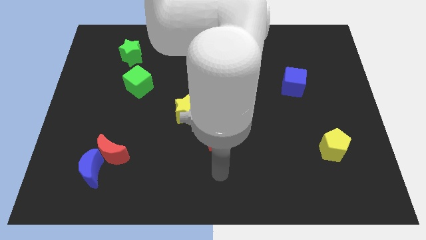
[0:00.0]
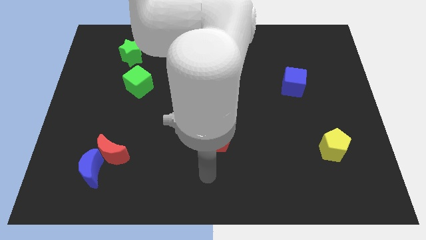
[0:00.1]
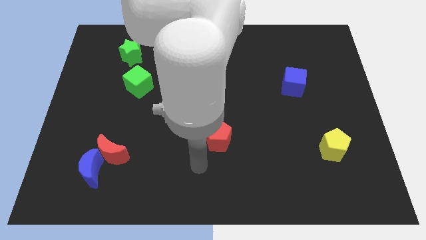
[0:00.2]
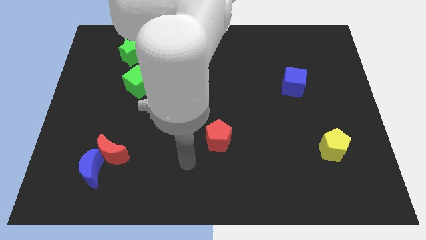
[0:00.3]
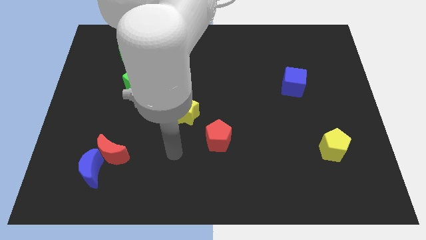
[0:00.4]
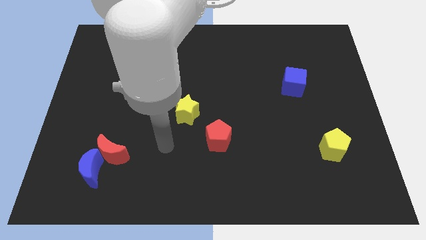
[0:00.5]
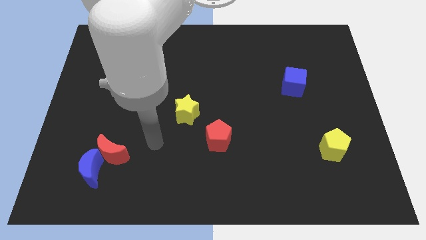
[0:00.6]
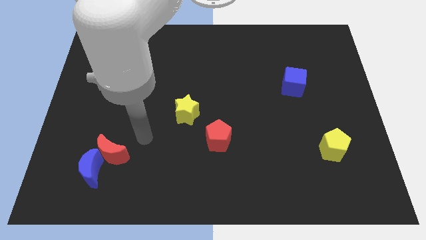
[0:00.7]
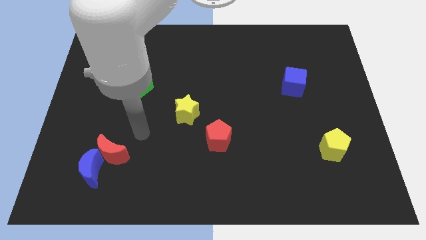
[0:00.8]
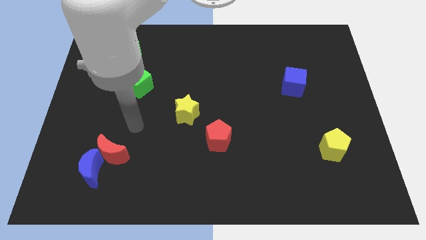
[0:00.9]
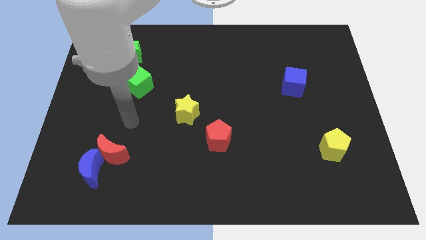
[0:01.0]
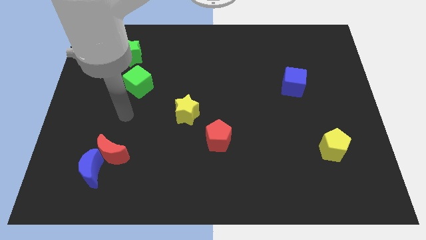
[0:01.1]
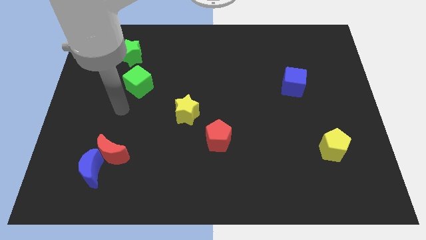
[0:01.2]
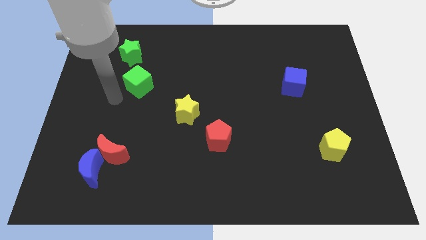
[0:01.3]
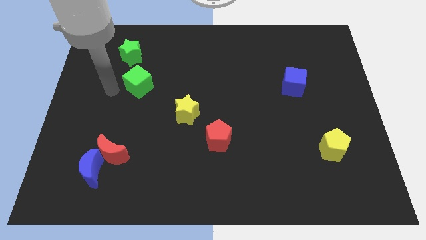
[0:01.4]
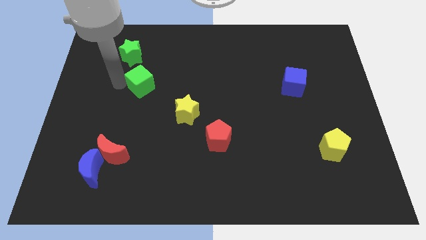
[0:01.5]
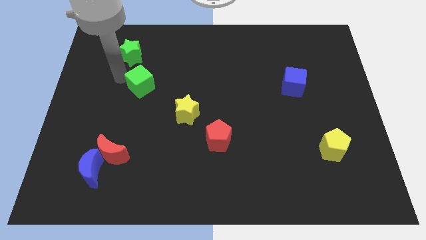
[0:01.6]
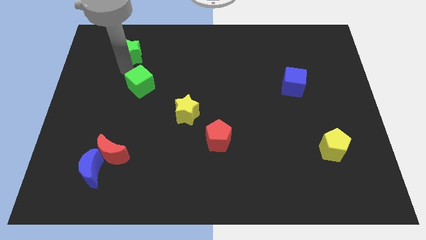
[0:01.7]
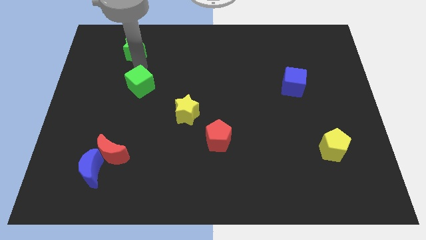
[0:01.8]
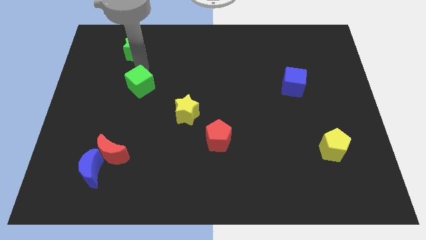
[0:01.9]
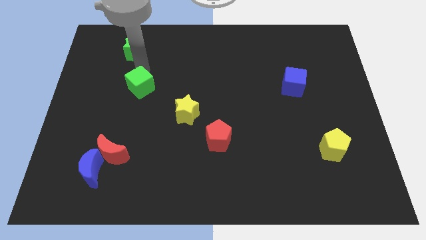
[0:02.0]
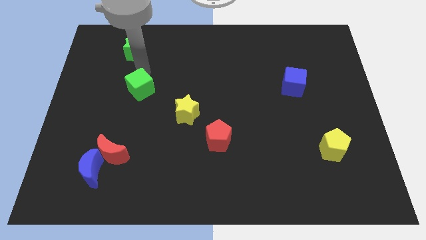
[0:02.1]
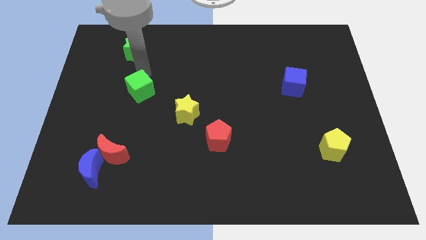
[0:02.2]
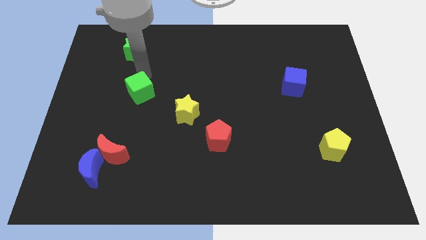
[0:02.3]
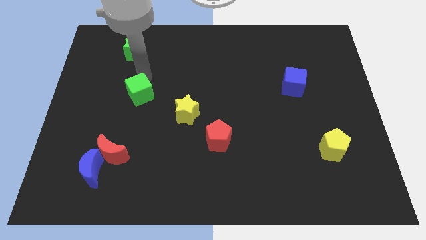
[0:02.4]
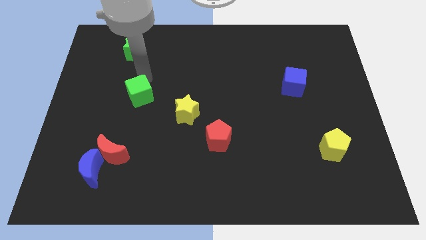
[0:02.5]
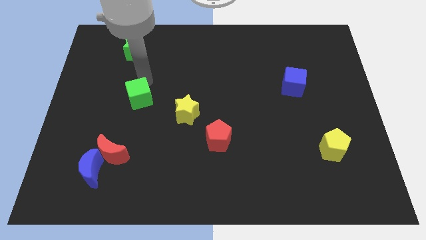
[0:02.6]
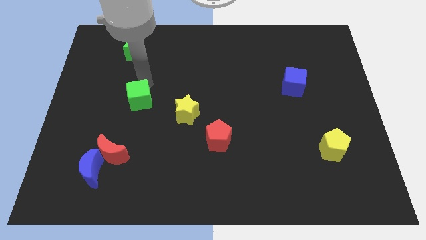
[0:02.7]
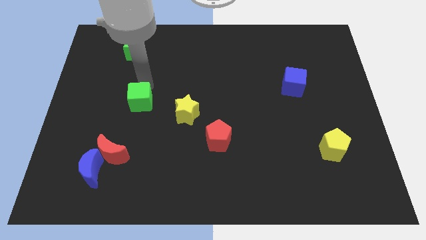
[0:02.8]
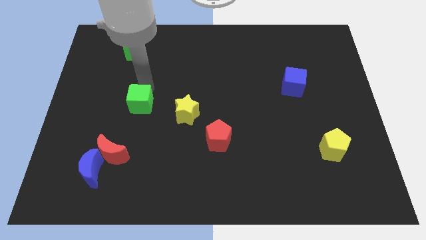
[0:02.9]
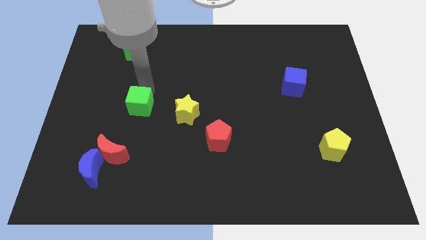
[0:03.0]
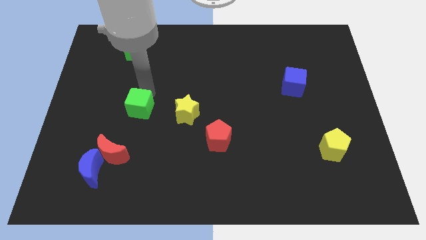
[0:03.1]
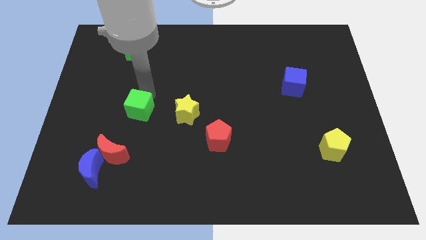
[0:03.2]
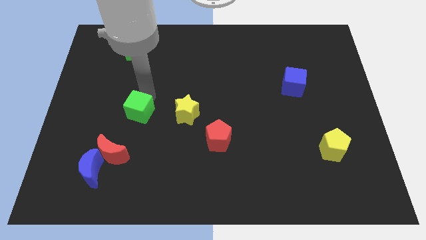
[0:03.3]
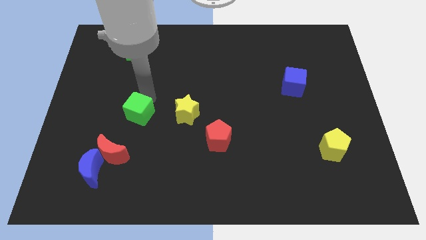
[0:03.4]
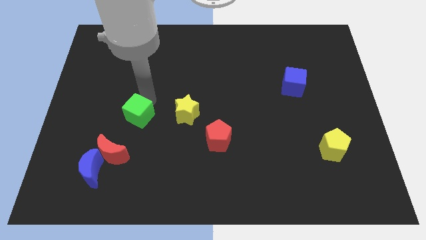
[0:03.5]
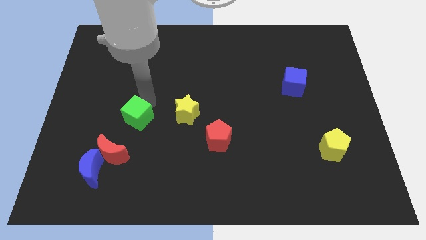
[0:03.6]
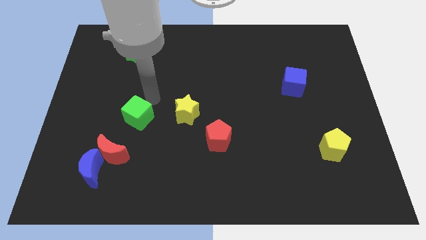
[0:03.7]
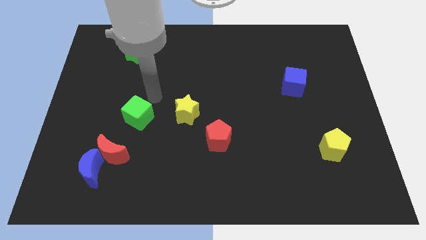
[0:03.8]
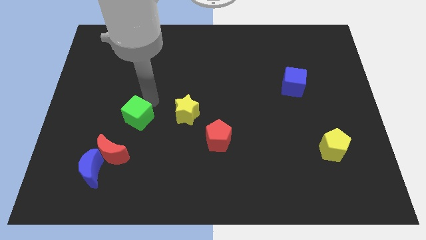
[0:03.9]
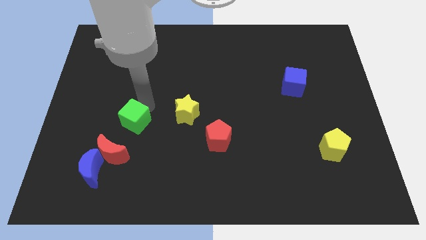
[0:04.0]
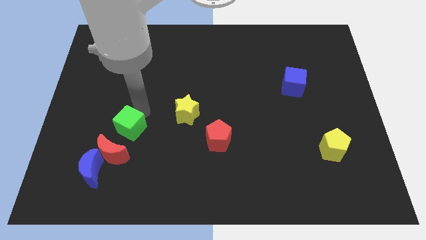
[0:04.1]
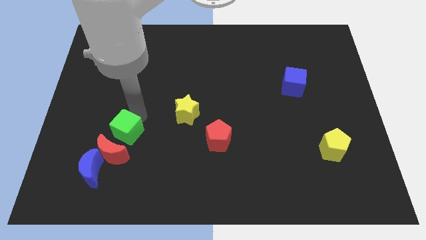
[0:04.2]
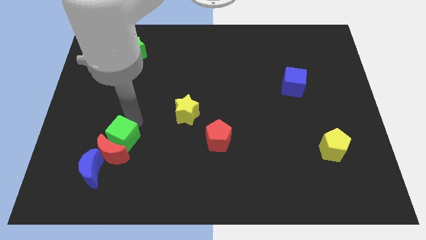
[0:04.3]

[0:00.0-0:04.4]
push the green cube to the red moon

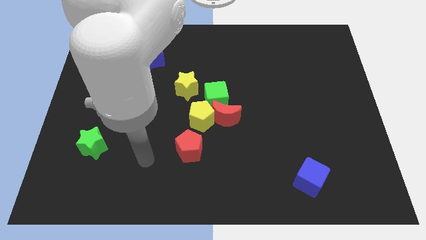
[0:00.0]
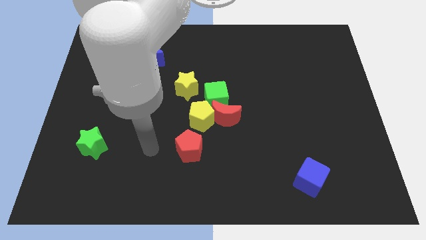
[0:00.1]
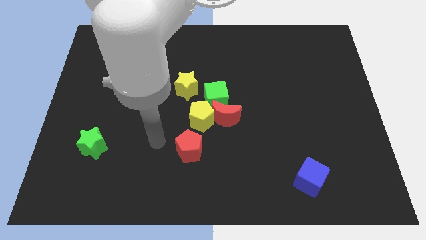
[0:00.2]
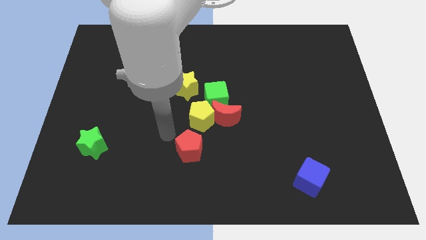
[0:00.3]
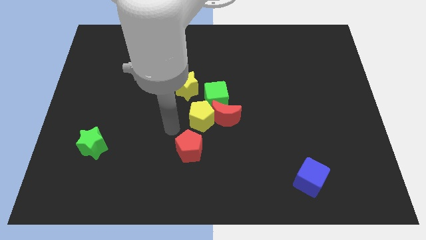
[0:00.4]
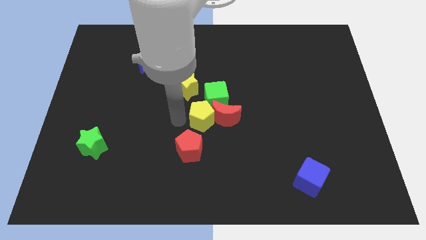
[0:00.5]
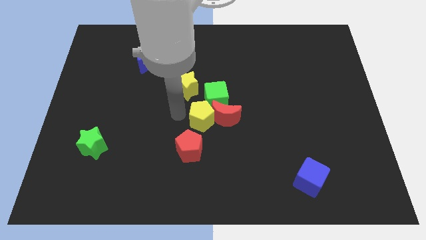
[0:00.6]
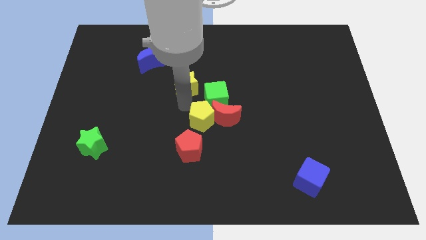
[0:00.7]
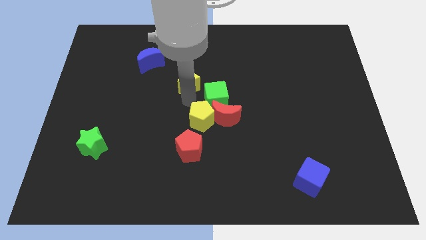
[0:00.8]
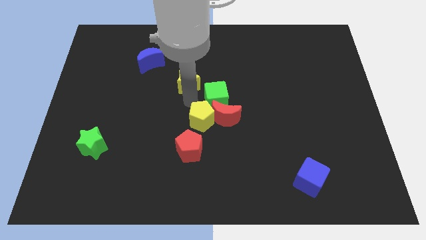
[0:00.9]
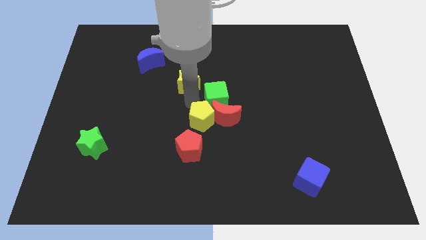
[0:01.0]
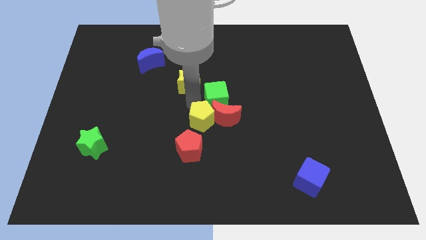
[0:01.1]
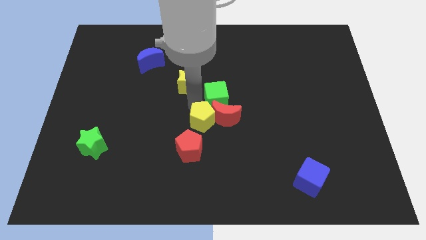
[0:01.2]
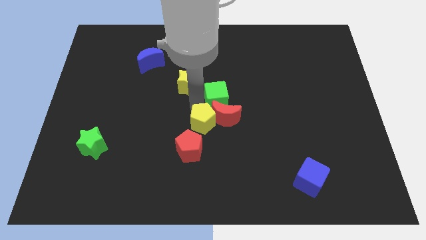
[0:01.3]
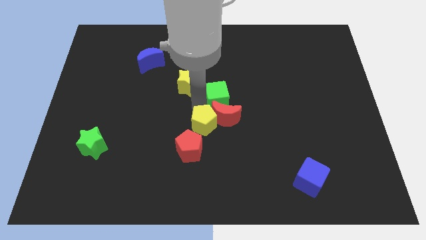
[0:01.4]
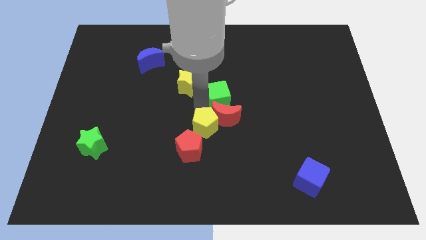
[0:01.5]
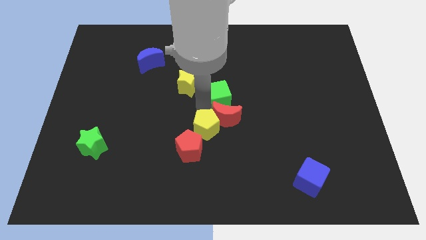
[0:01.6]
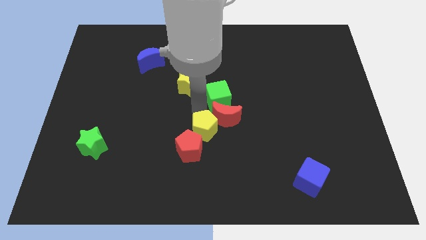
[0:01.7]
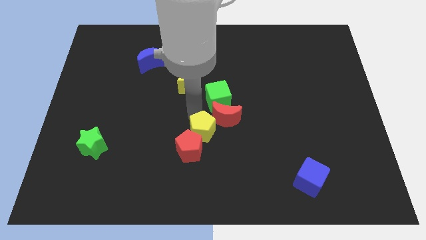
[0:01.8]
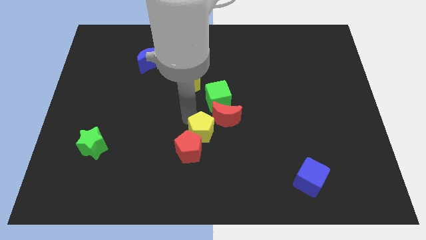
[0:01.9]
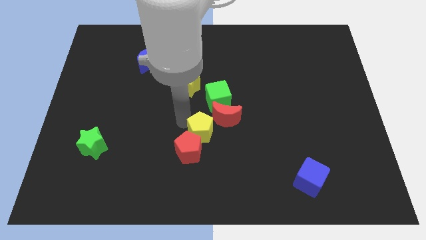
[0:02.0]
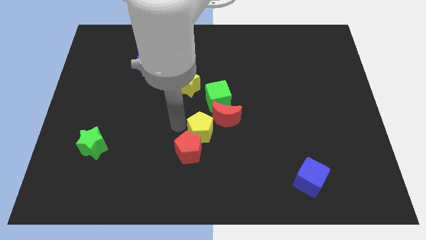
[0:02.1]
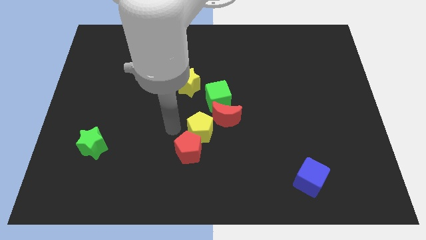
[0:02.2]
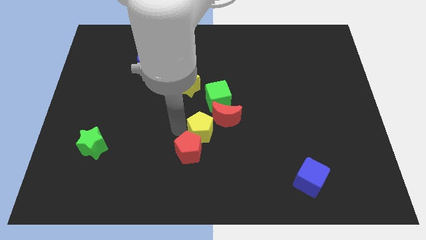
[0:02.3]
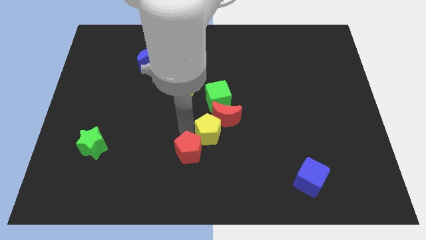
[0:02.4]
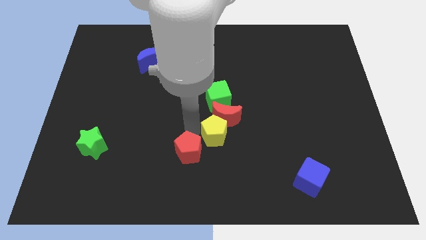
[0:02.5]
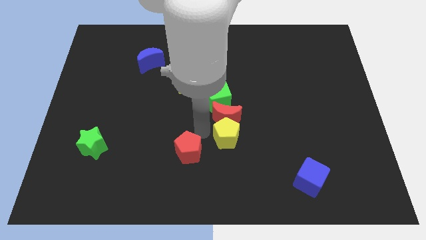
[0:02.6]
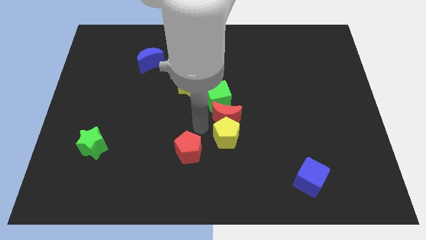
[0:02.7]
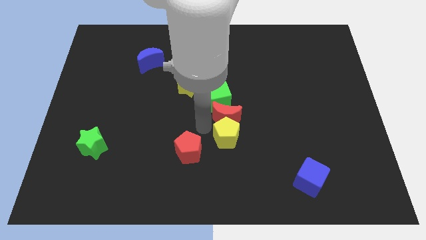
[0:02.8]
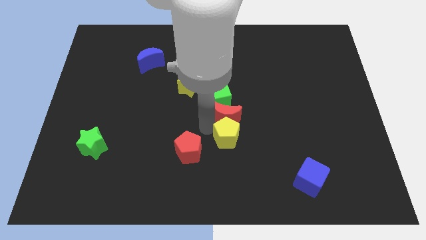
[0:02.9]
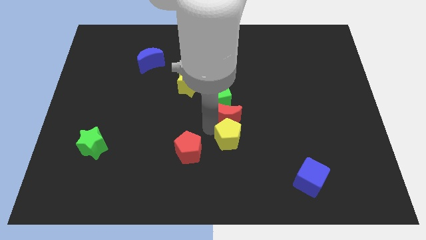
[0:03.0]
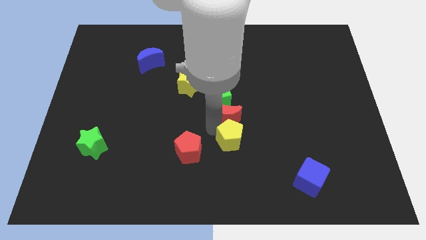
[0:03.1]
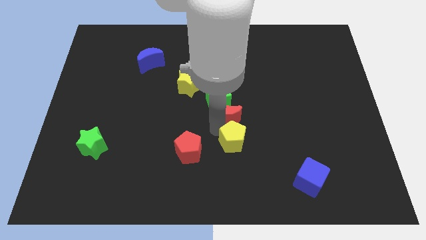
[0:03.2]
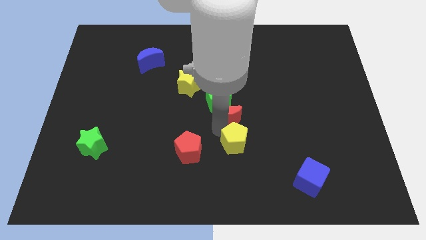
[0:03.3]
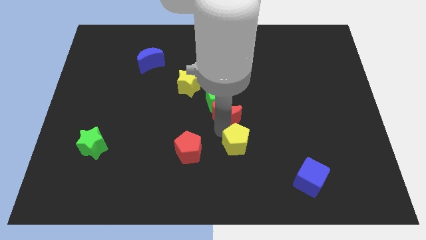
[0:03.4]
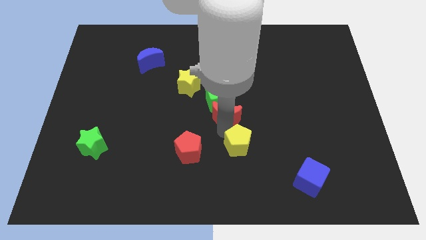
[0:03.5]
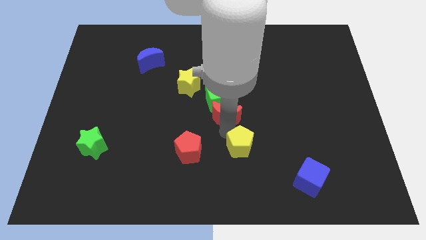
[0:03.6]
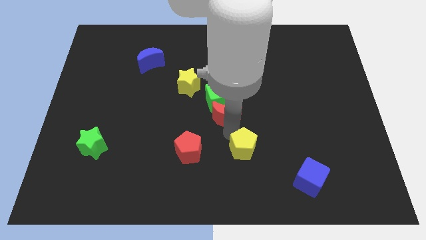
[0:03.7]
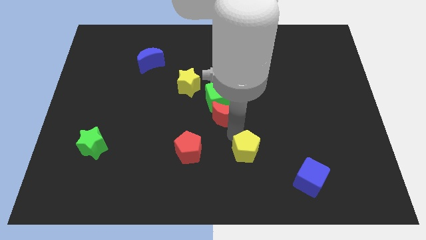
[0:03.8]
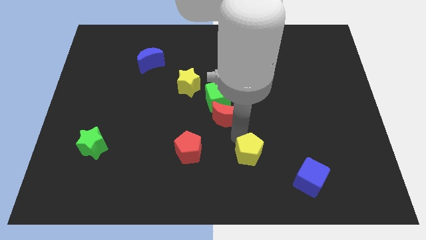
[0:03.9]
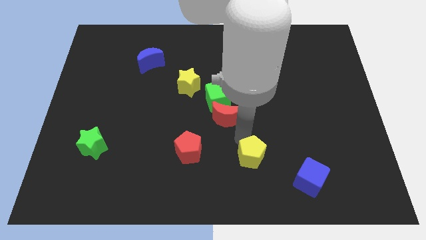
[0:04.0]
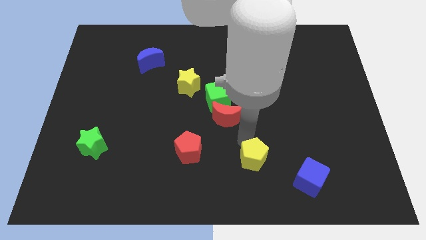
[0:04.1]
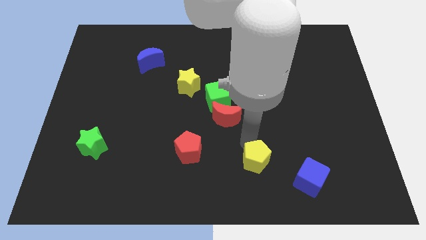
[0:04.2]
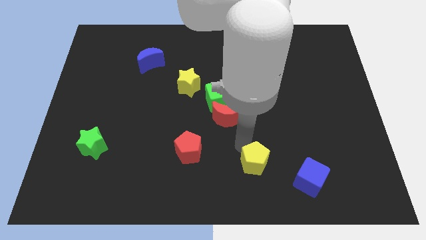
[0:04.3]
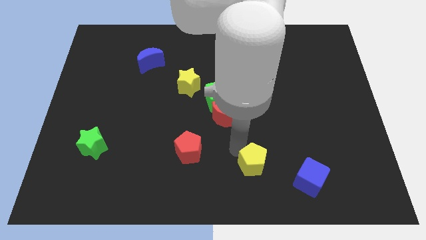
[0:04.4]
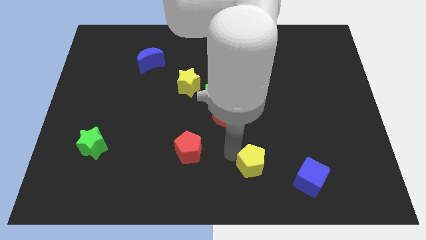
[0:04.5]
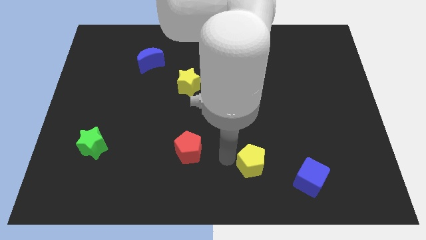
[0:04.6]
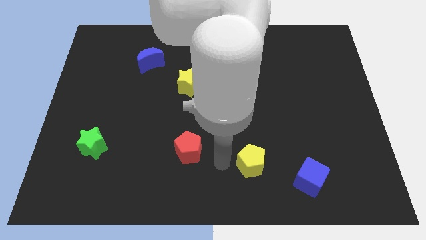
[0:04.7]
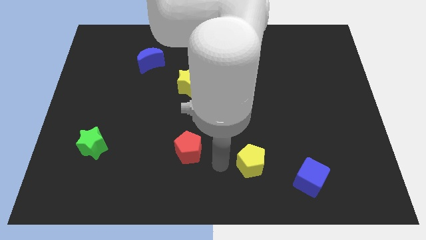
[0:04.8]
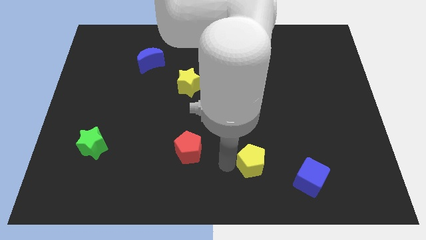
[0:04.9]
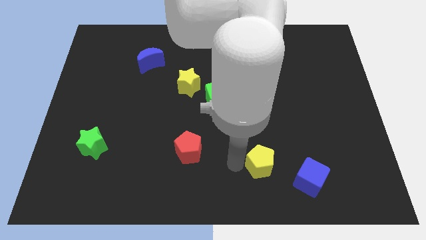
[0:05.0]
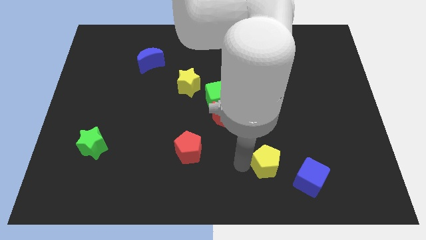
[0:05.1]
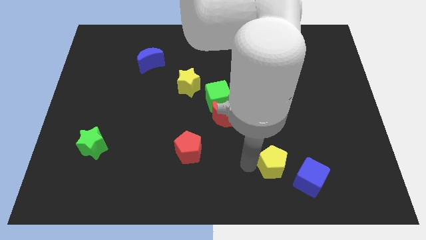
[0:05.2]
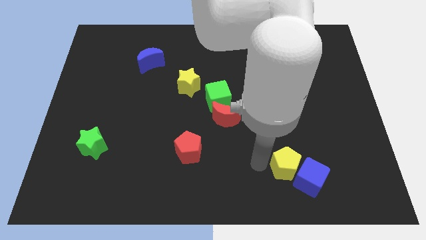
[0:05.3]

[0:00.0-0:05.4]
move the yellow pentagon next to the blue cube
